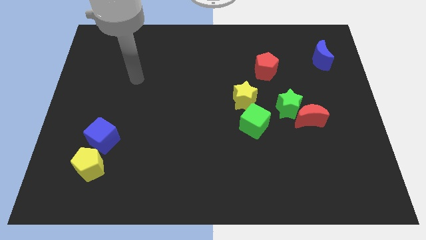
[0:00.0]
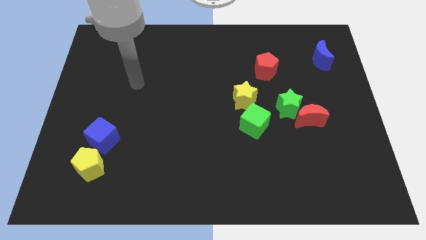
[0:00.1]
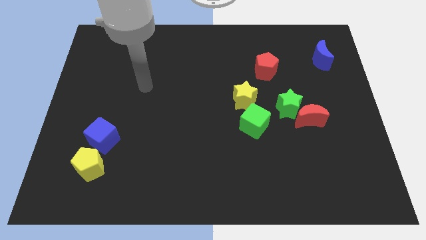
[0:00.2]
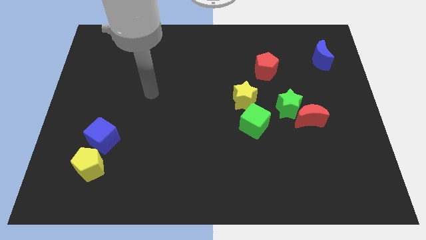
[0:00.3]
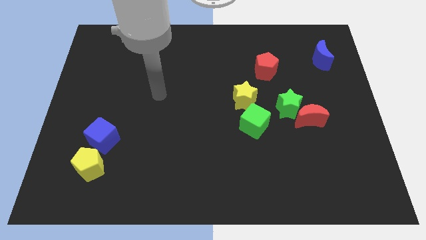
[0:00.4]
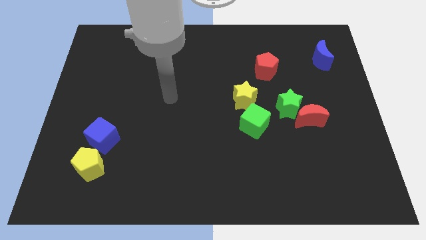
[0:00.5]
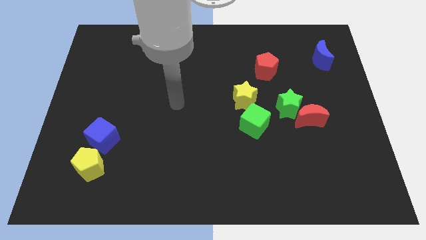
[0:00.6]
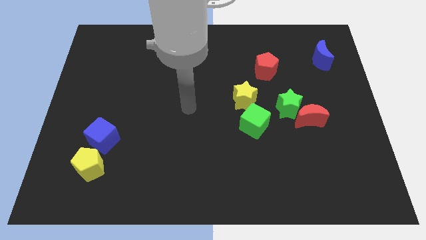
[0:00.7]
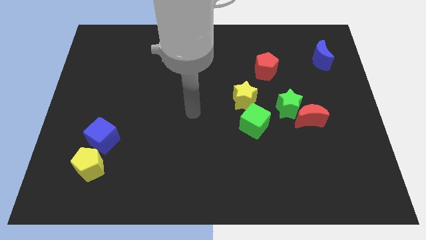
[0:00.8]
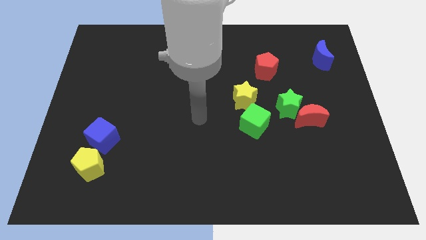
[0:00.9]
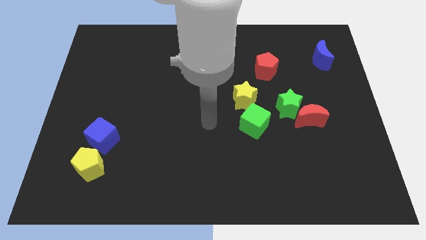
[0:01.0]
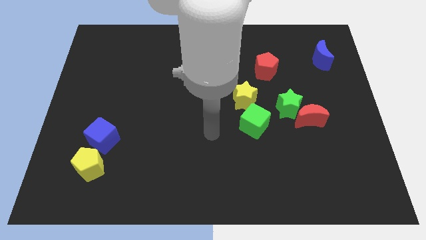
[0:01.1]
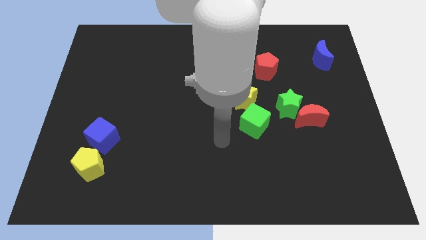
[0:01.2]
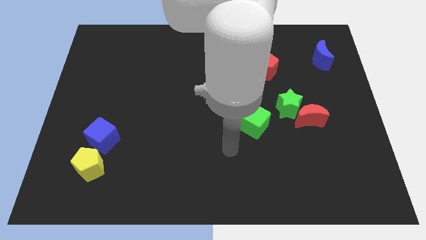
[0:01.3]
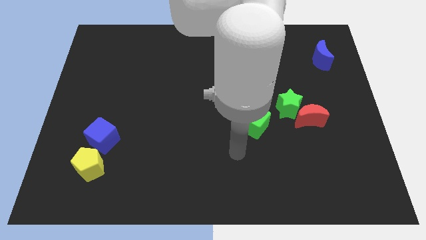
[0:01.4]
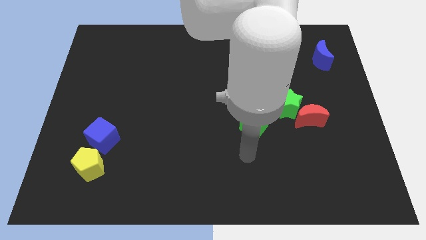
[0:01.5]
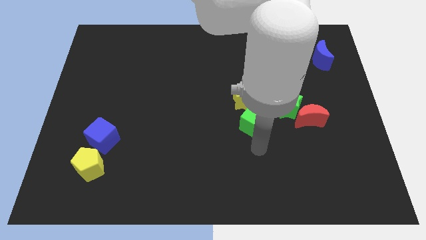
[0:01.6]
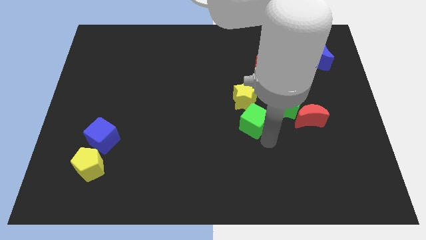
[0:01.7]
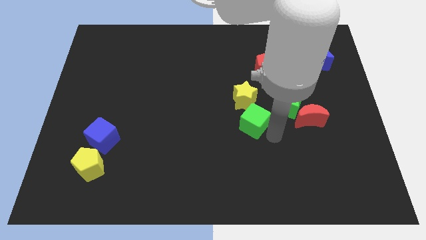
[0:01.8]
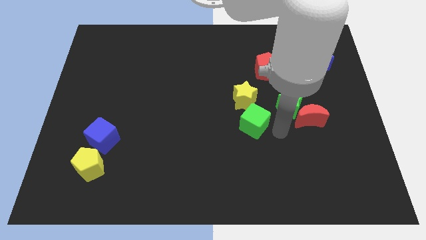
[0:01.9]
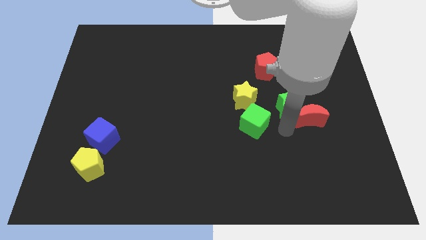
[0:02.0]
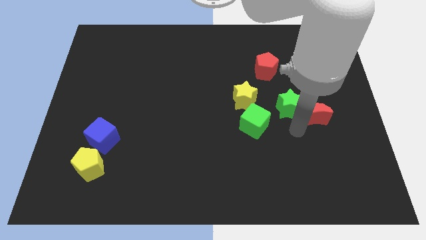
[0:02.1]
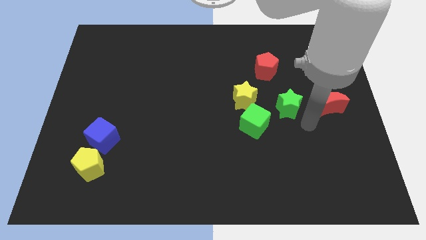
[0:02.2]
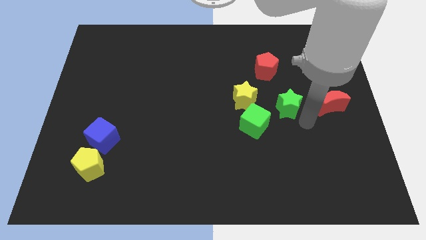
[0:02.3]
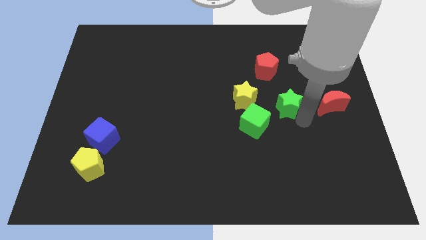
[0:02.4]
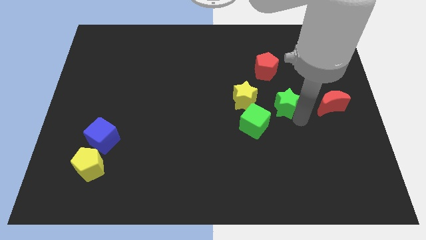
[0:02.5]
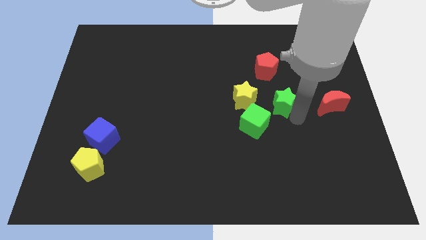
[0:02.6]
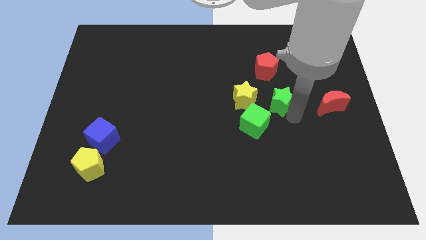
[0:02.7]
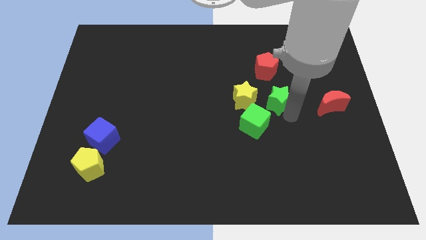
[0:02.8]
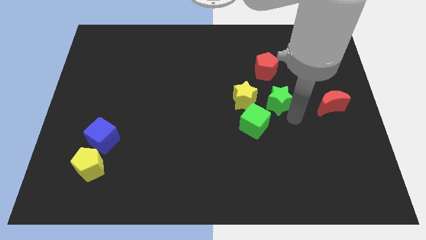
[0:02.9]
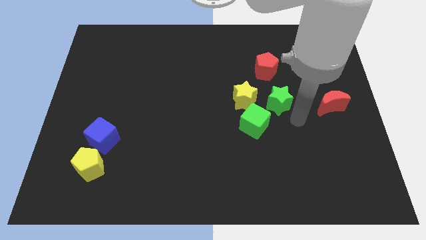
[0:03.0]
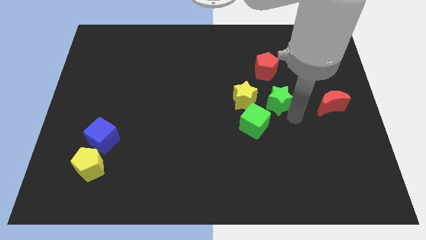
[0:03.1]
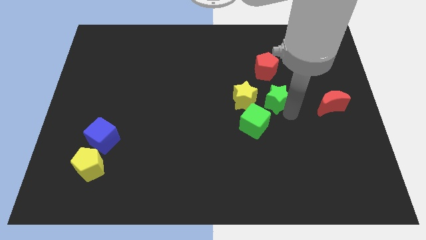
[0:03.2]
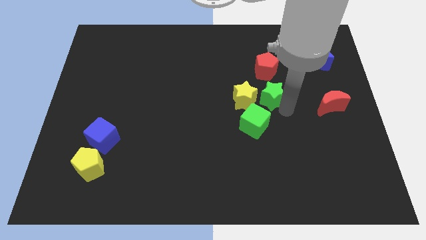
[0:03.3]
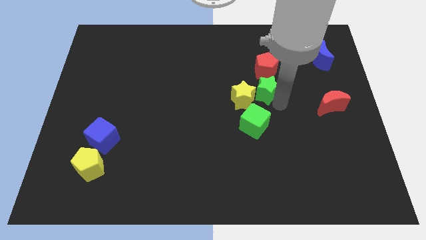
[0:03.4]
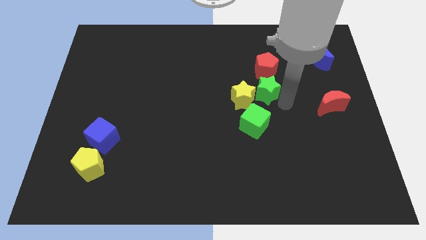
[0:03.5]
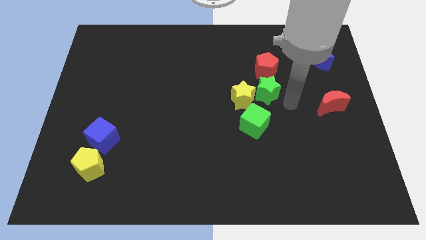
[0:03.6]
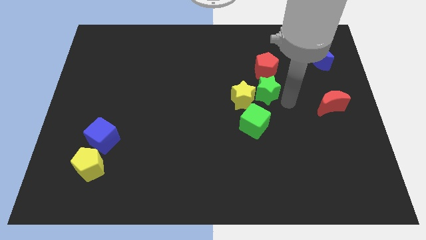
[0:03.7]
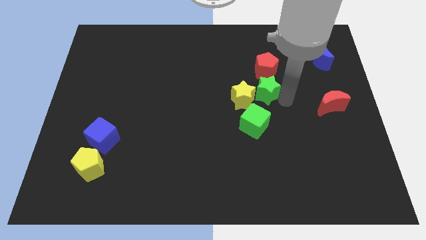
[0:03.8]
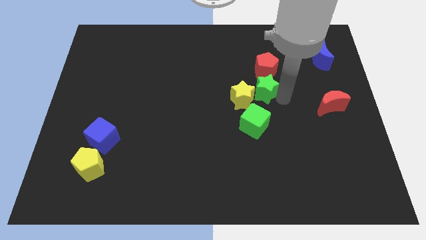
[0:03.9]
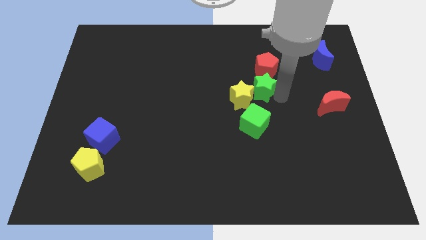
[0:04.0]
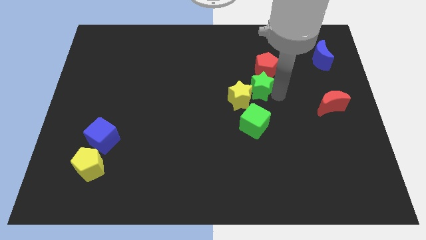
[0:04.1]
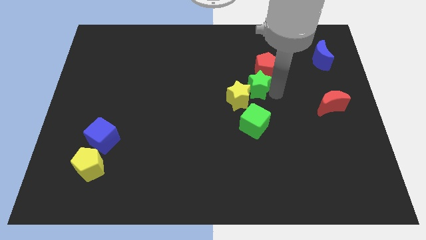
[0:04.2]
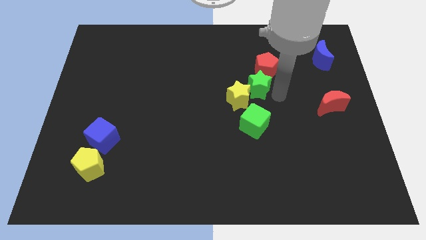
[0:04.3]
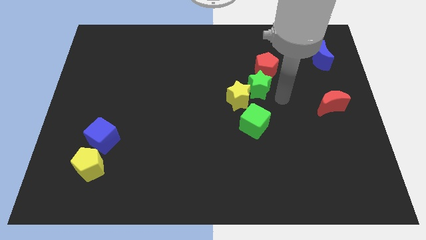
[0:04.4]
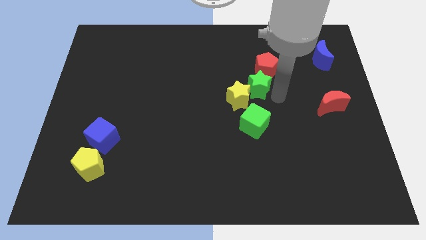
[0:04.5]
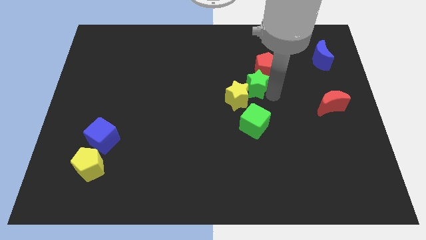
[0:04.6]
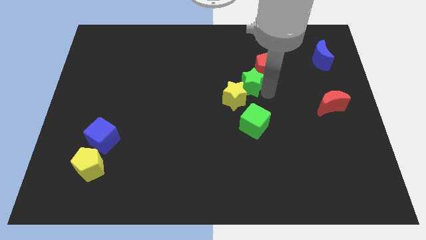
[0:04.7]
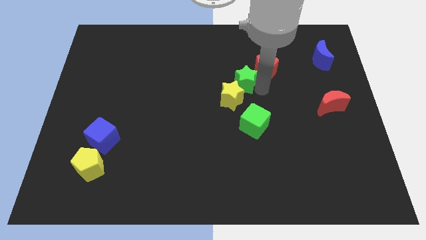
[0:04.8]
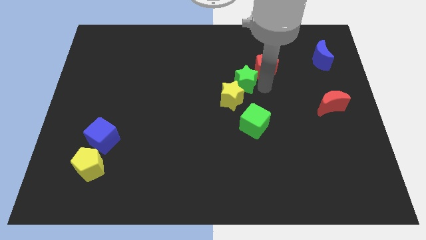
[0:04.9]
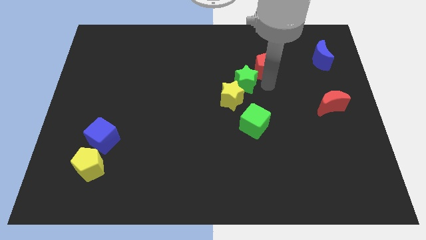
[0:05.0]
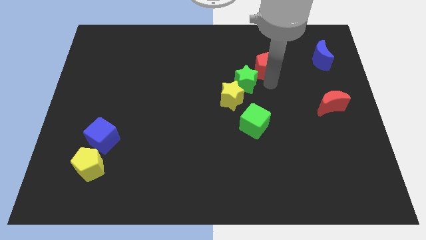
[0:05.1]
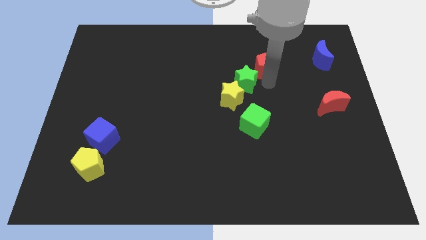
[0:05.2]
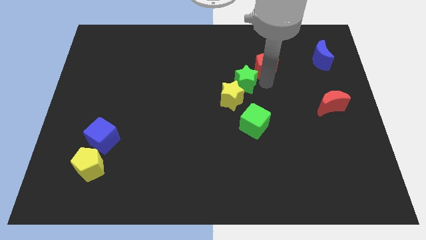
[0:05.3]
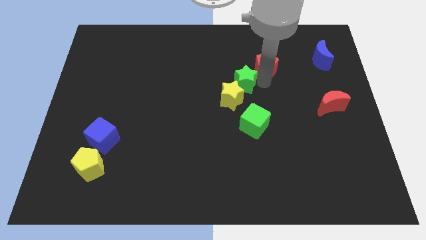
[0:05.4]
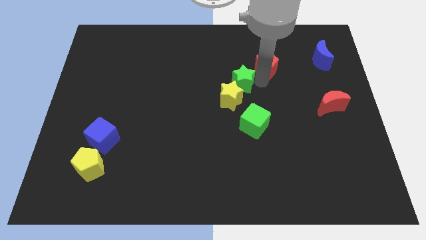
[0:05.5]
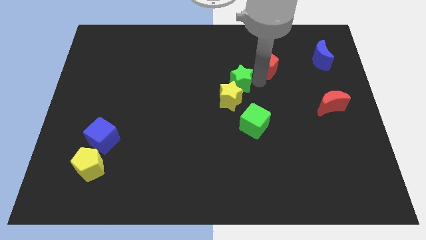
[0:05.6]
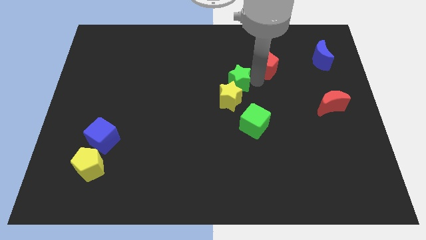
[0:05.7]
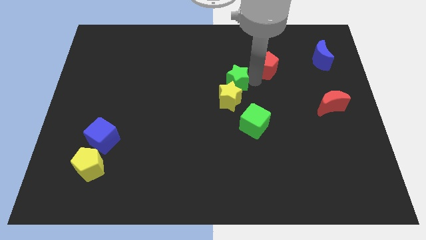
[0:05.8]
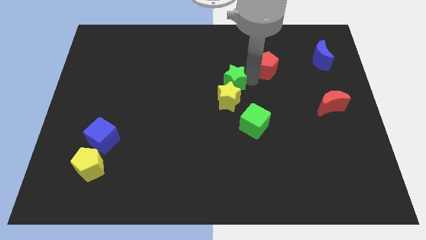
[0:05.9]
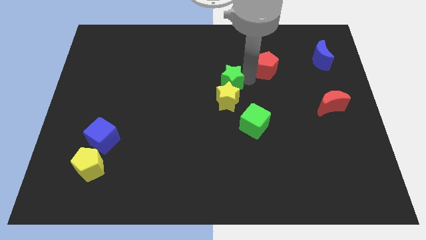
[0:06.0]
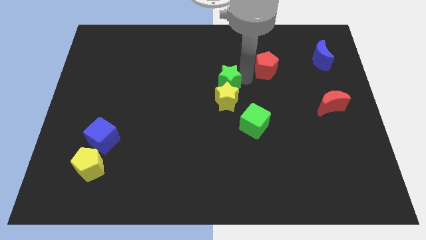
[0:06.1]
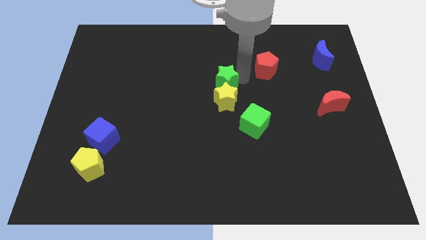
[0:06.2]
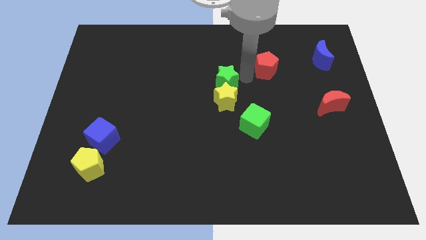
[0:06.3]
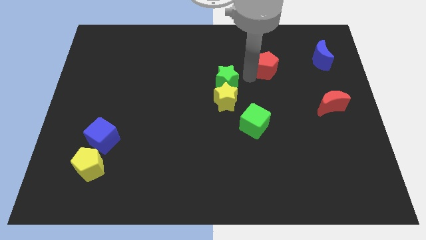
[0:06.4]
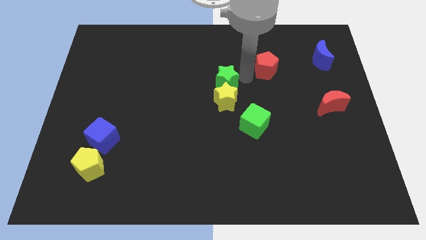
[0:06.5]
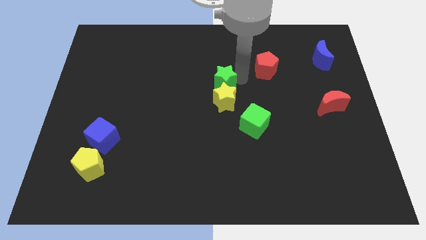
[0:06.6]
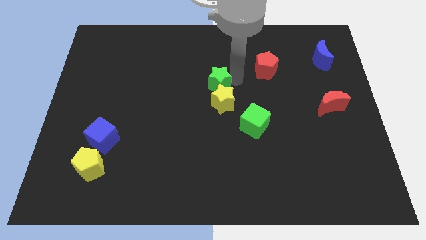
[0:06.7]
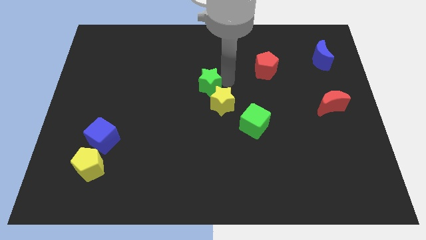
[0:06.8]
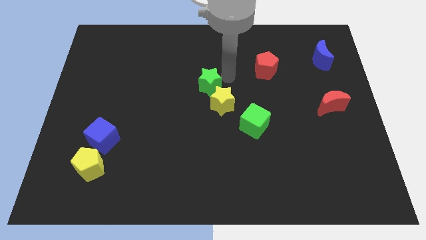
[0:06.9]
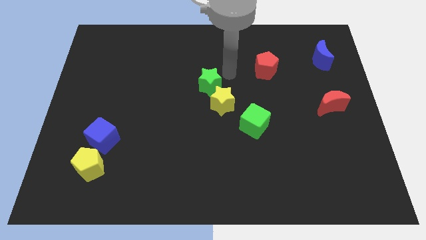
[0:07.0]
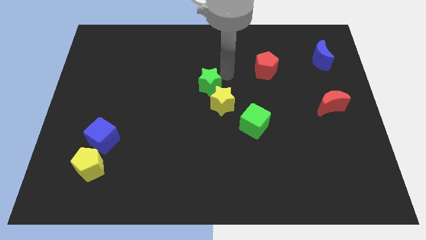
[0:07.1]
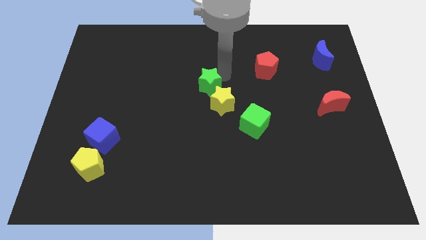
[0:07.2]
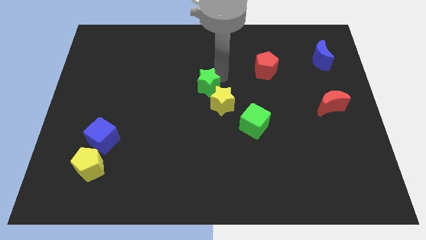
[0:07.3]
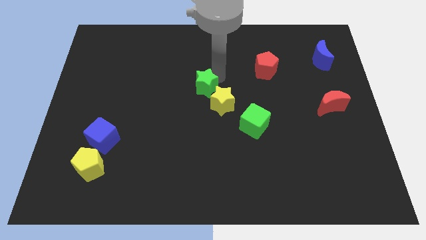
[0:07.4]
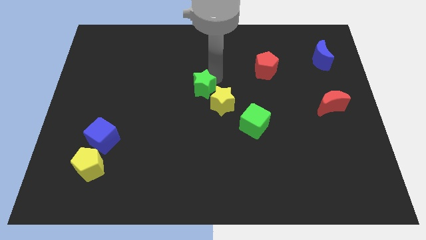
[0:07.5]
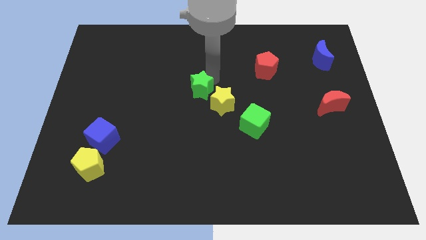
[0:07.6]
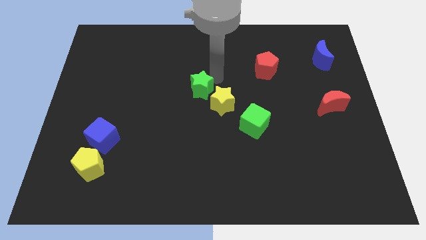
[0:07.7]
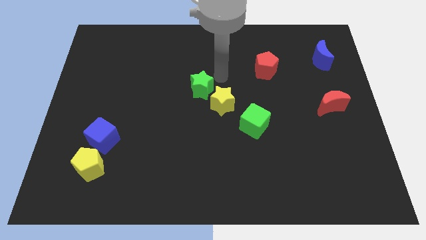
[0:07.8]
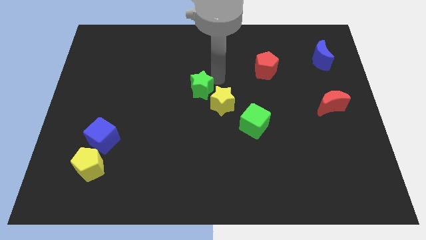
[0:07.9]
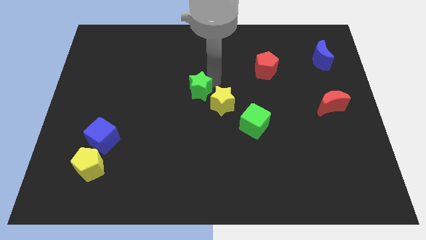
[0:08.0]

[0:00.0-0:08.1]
slide the green star left
